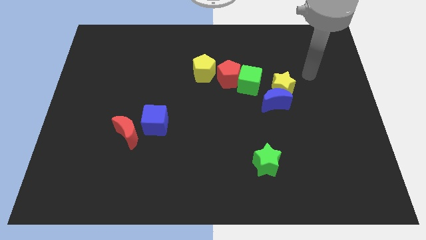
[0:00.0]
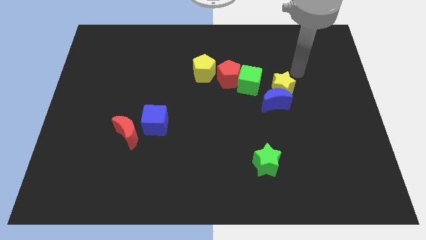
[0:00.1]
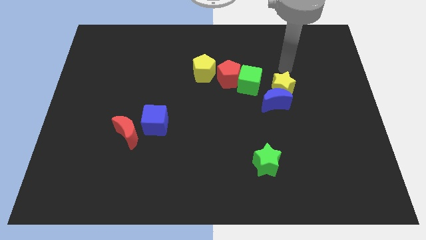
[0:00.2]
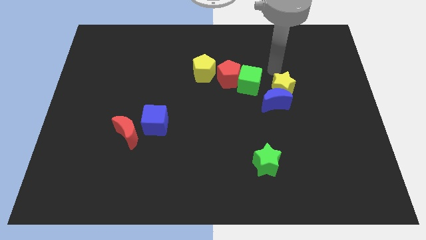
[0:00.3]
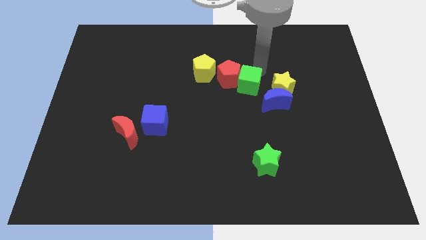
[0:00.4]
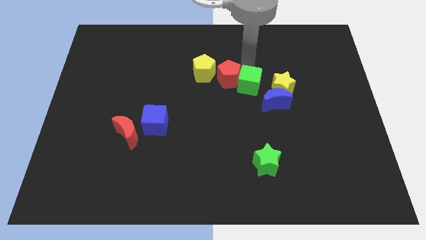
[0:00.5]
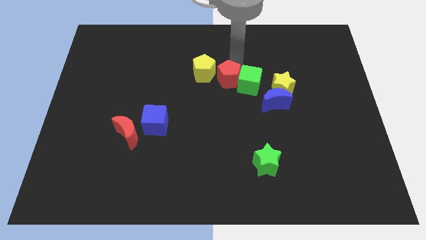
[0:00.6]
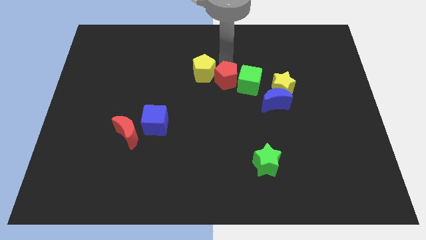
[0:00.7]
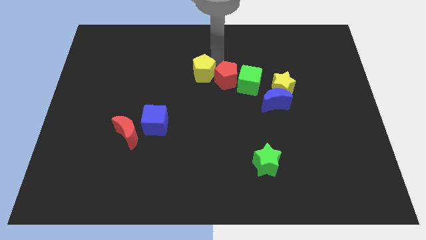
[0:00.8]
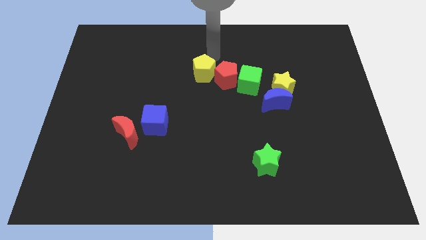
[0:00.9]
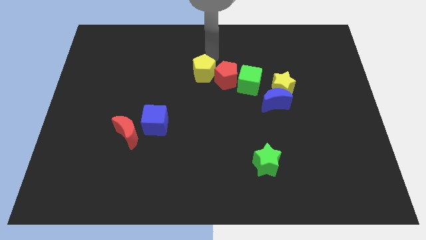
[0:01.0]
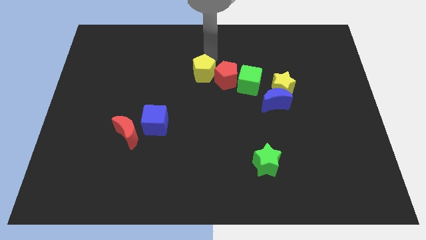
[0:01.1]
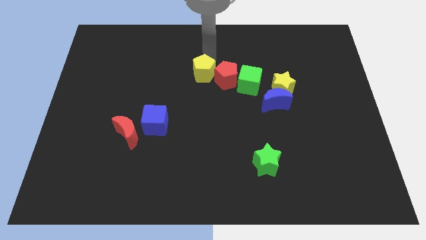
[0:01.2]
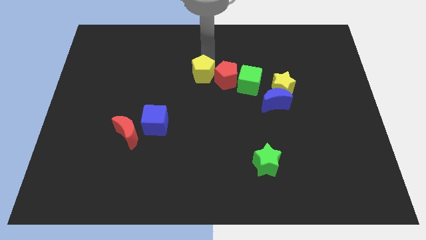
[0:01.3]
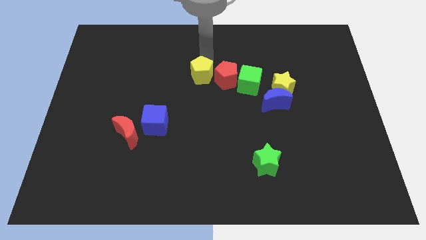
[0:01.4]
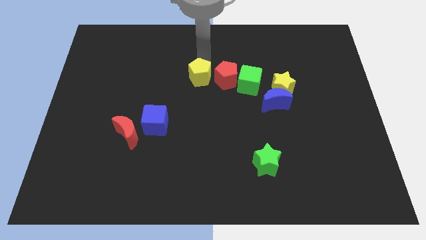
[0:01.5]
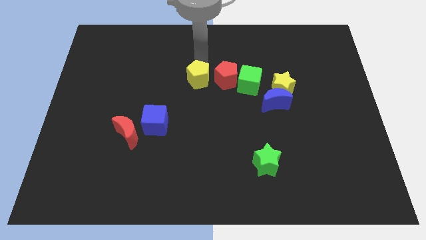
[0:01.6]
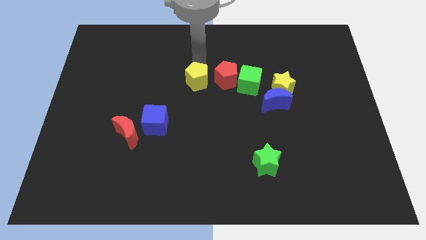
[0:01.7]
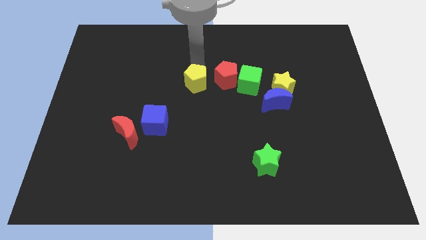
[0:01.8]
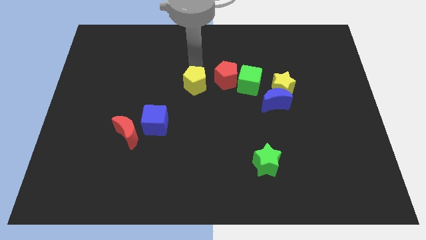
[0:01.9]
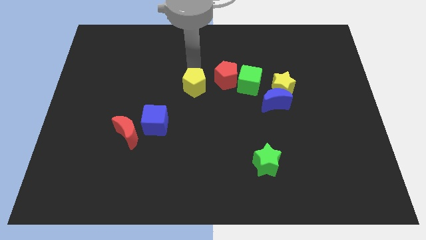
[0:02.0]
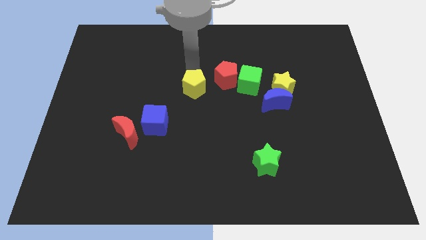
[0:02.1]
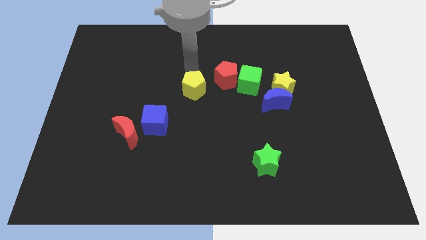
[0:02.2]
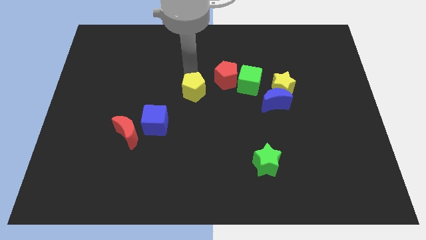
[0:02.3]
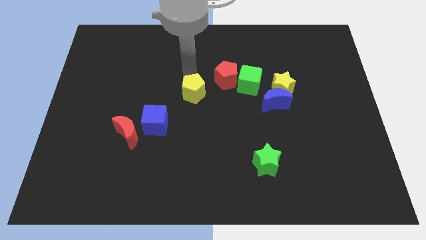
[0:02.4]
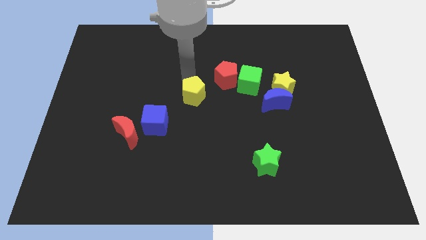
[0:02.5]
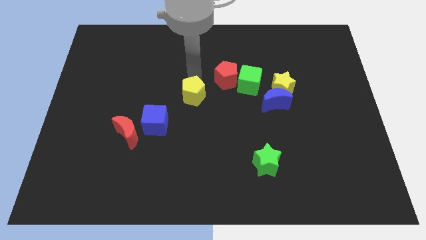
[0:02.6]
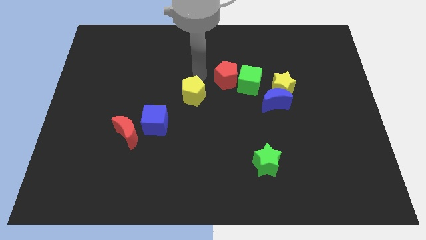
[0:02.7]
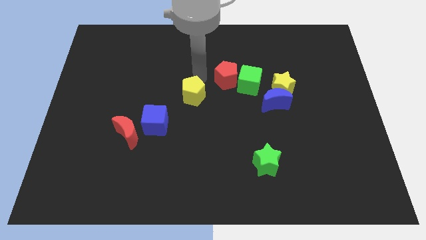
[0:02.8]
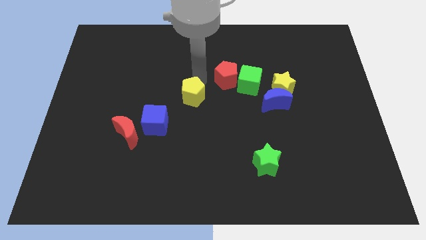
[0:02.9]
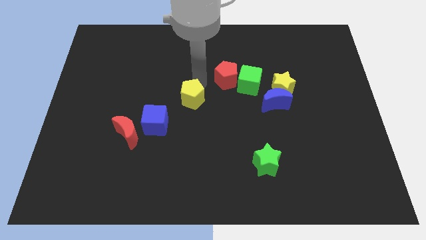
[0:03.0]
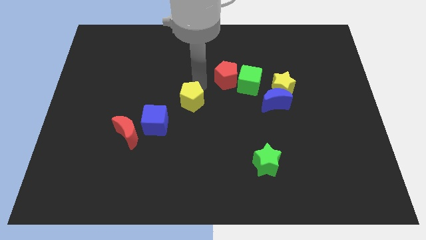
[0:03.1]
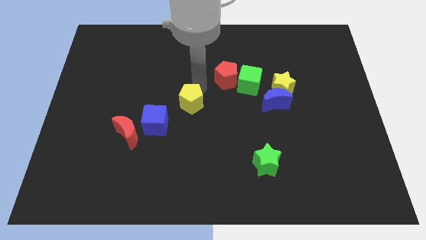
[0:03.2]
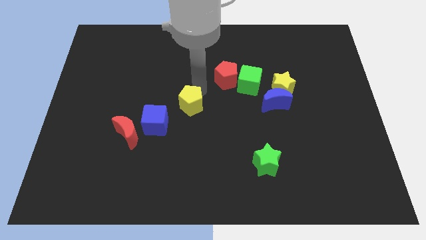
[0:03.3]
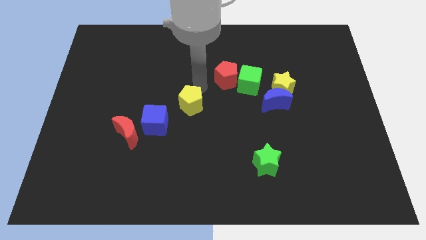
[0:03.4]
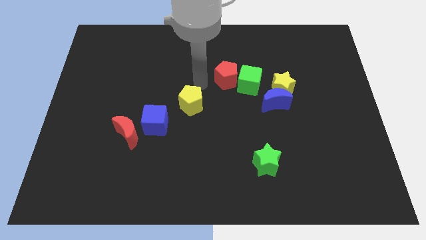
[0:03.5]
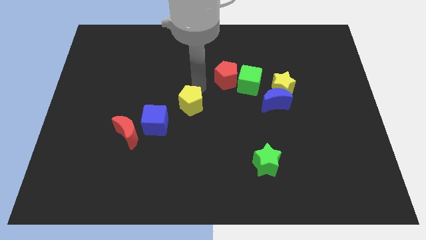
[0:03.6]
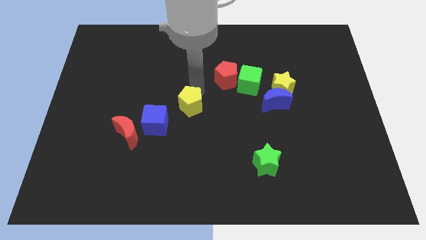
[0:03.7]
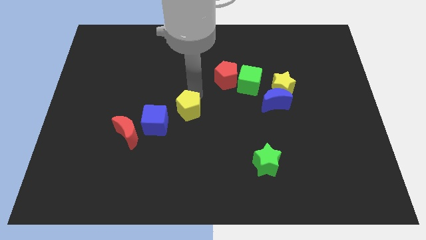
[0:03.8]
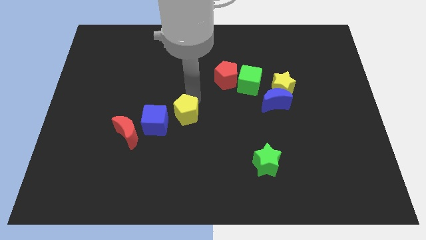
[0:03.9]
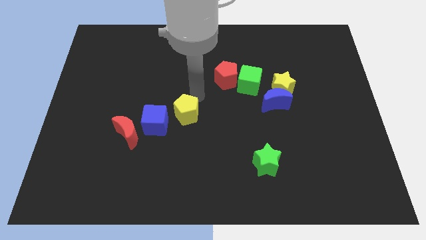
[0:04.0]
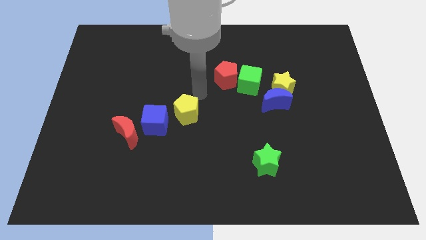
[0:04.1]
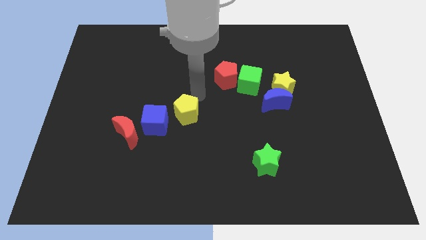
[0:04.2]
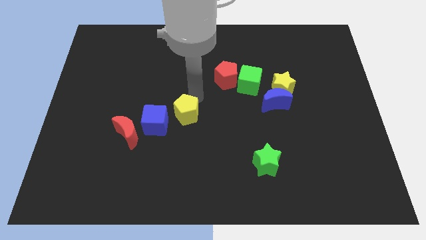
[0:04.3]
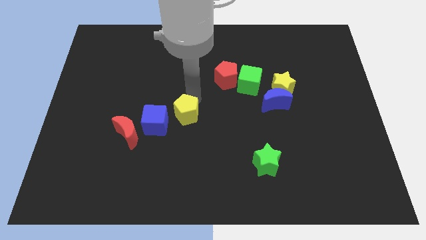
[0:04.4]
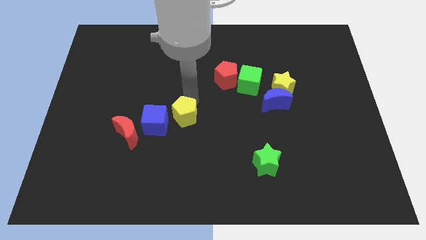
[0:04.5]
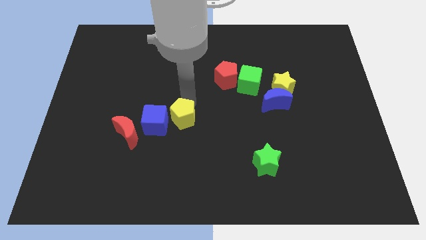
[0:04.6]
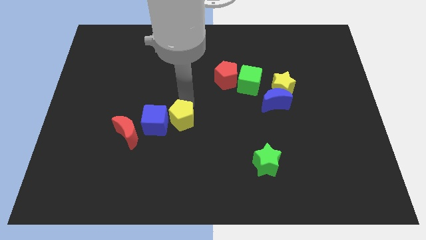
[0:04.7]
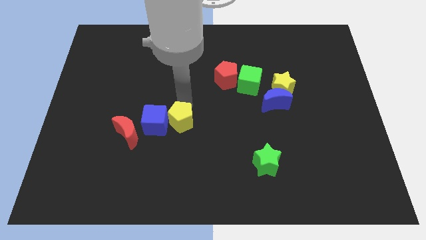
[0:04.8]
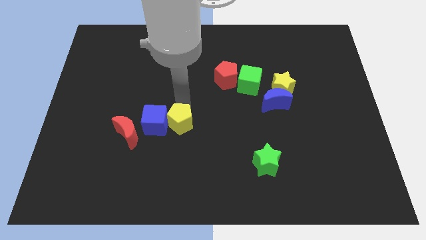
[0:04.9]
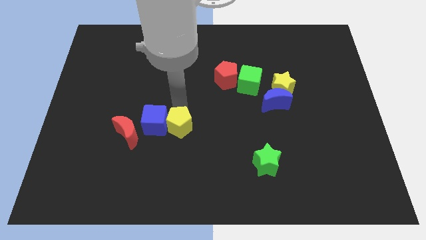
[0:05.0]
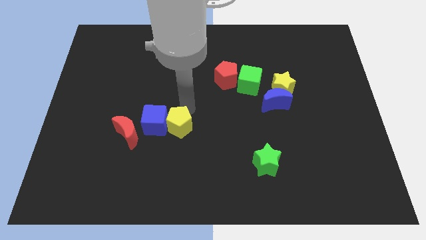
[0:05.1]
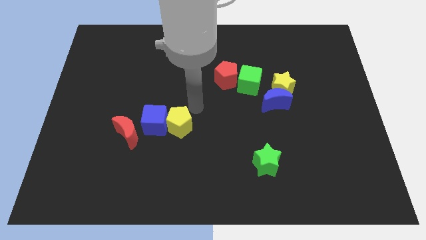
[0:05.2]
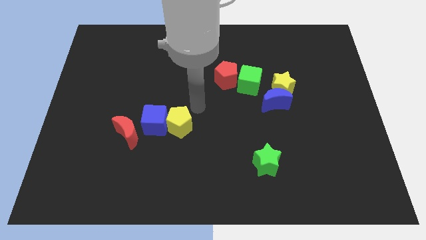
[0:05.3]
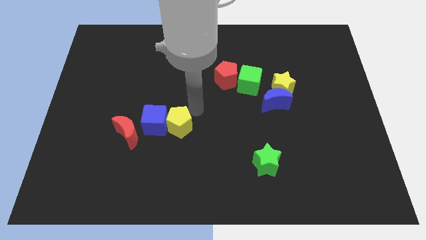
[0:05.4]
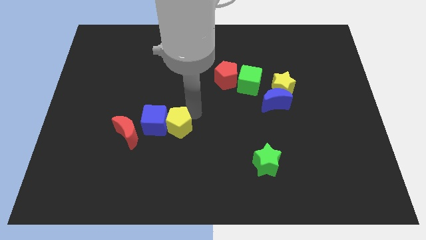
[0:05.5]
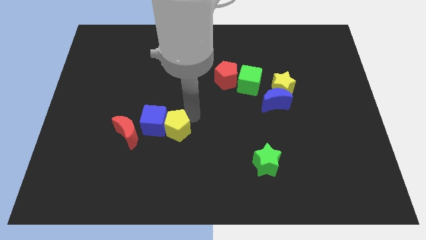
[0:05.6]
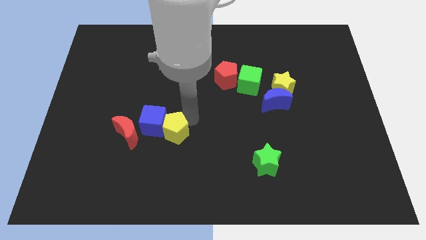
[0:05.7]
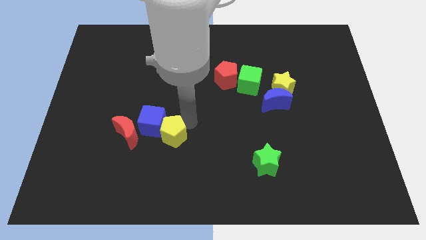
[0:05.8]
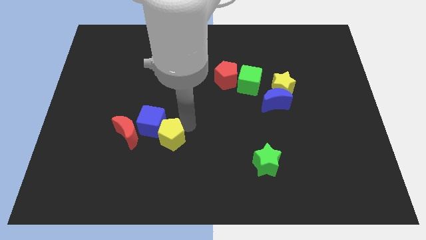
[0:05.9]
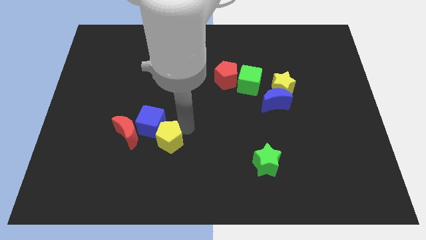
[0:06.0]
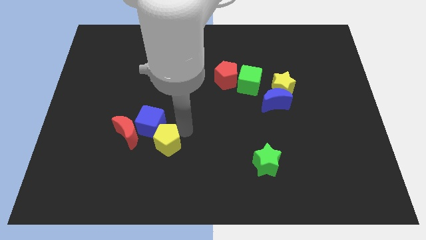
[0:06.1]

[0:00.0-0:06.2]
slide the yellow pentagon diagonally down and to the right of the red moon

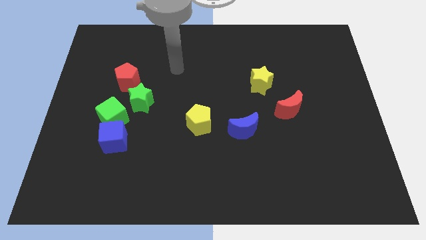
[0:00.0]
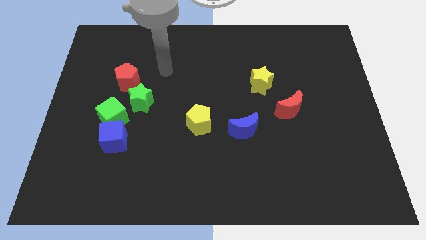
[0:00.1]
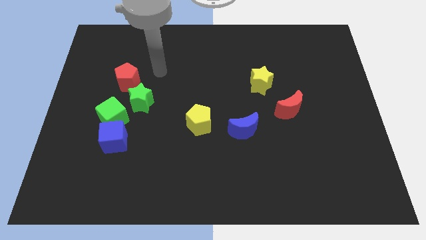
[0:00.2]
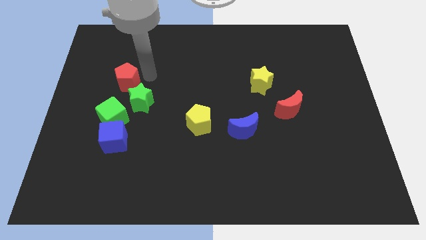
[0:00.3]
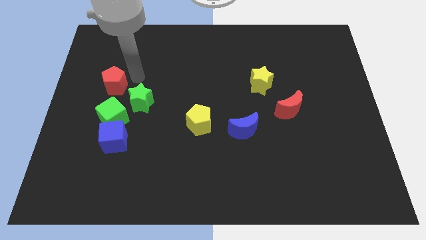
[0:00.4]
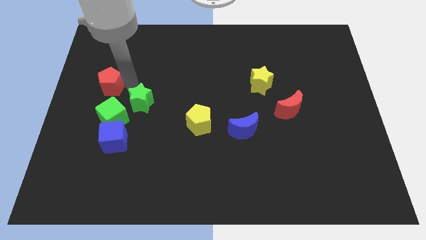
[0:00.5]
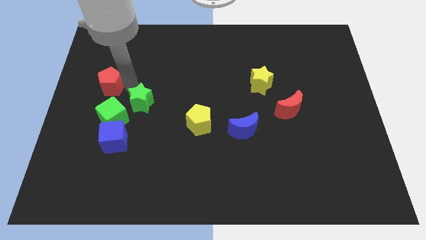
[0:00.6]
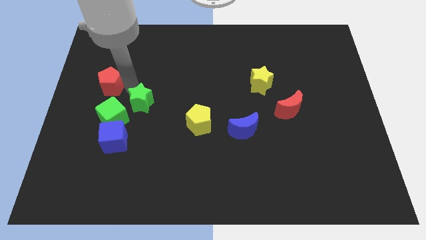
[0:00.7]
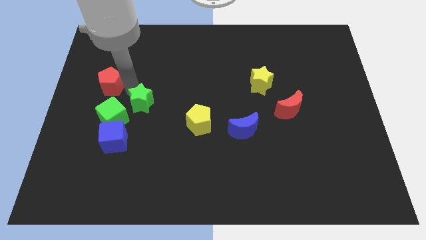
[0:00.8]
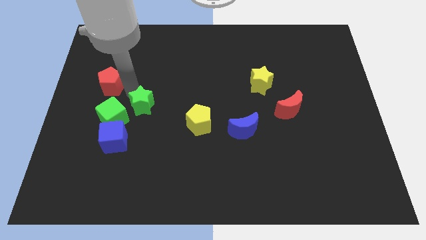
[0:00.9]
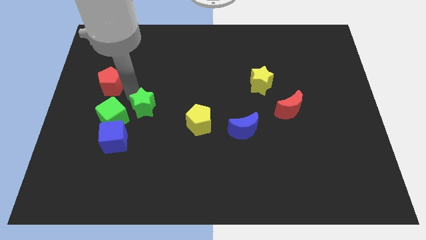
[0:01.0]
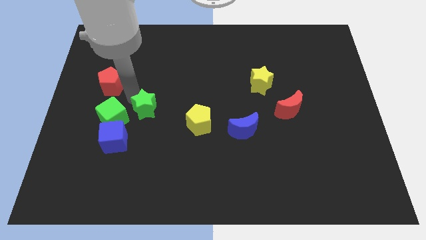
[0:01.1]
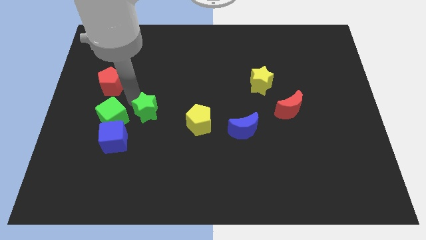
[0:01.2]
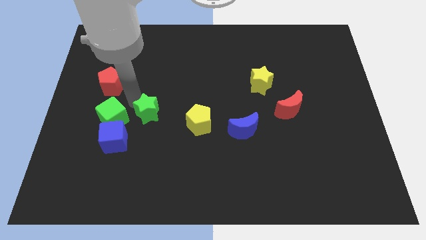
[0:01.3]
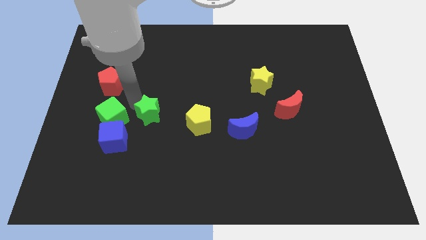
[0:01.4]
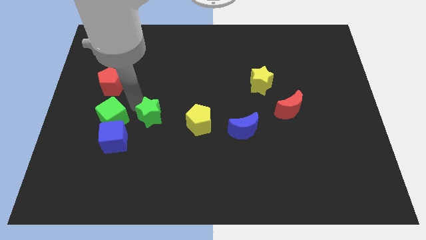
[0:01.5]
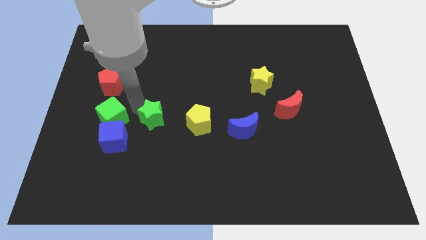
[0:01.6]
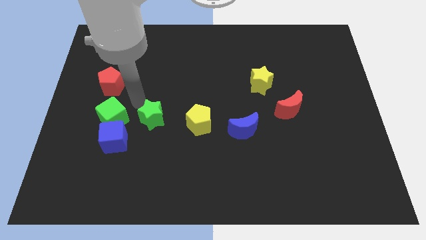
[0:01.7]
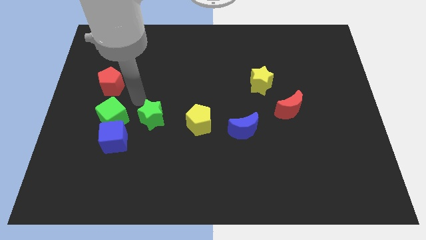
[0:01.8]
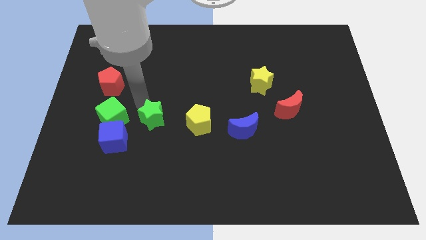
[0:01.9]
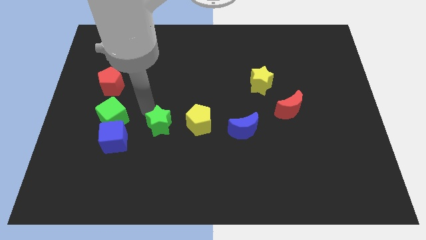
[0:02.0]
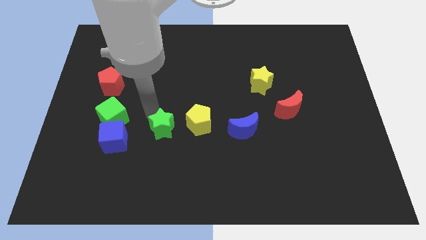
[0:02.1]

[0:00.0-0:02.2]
move the green star diagonally down and to the left of the yellow pentagon
